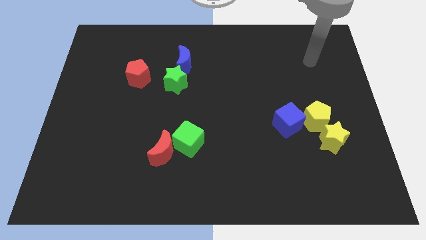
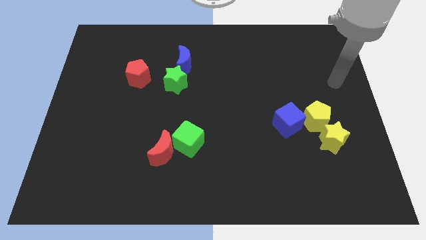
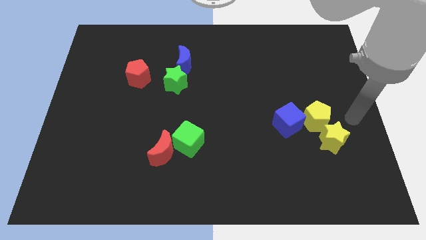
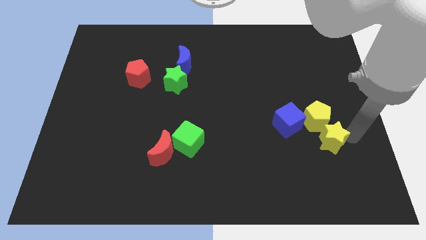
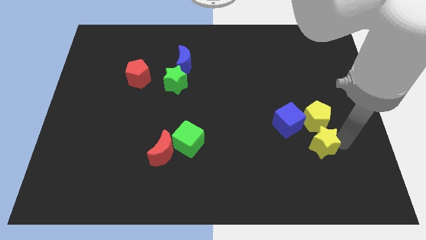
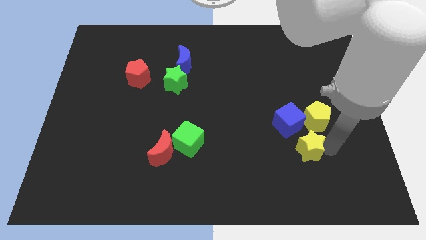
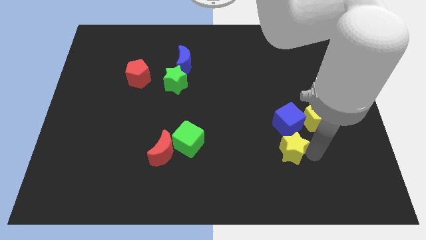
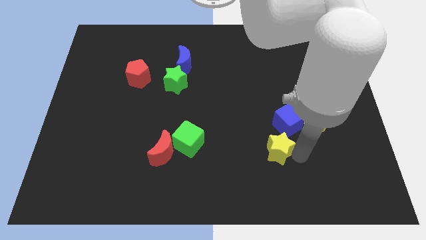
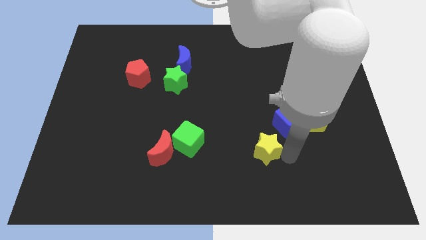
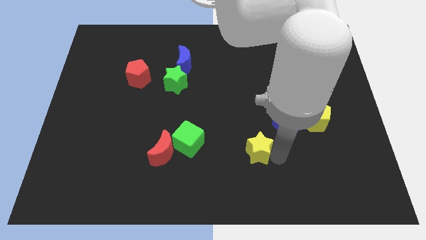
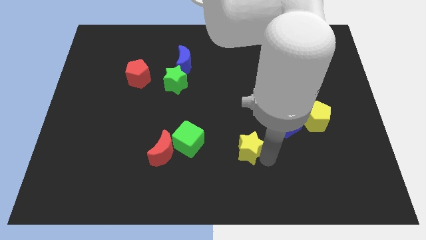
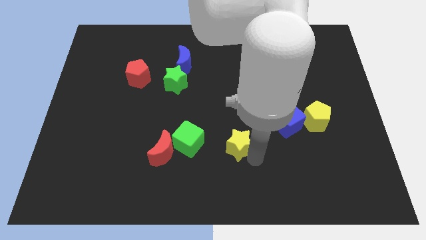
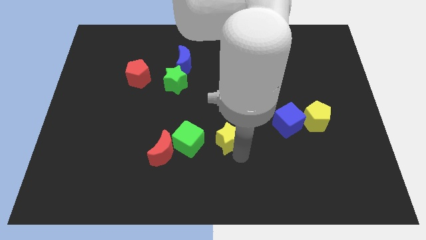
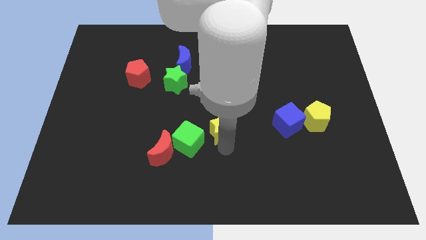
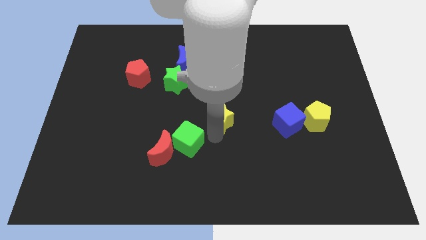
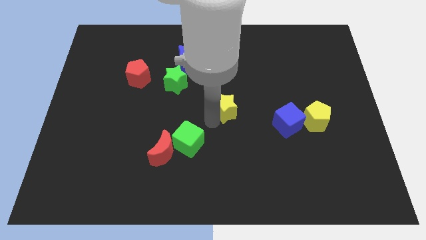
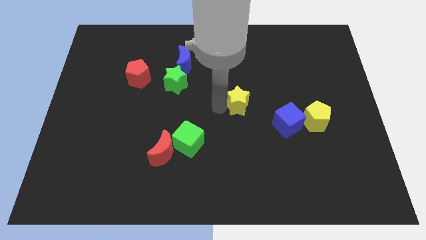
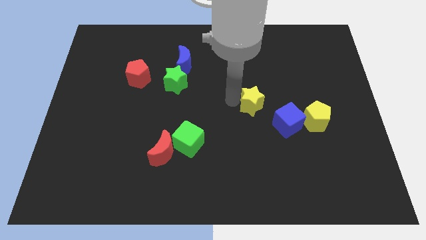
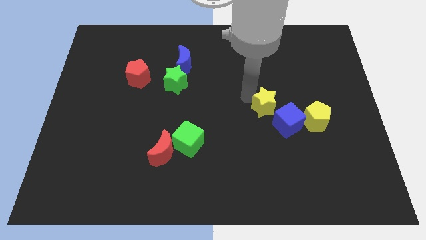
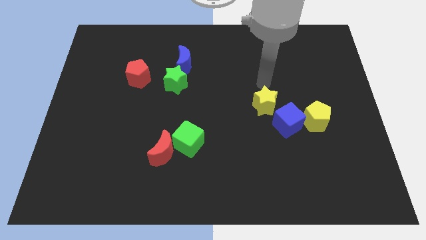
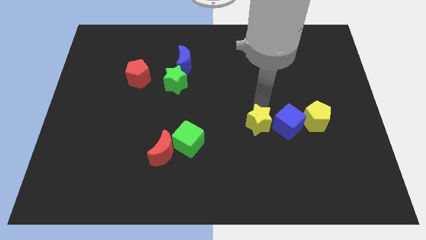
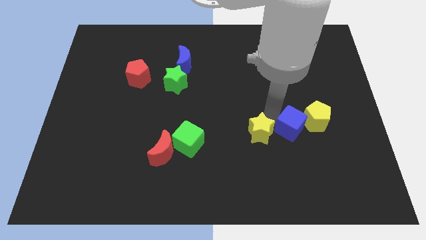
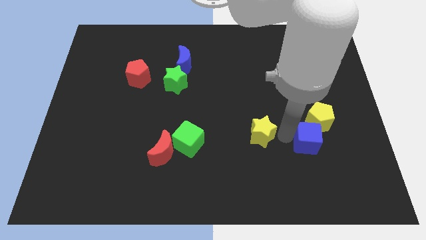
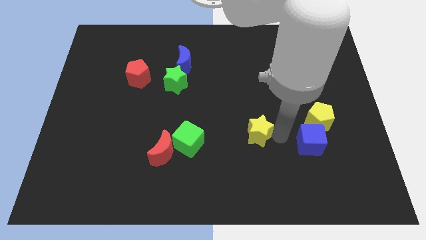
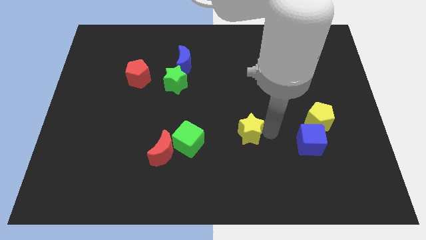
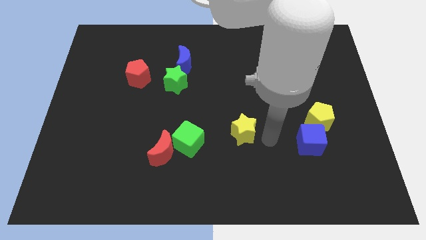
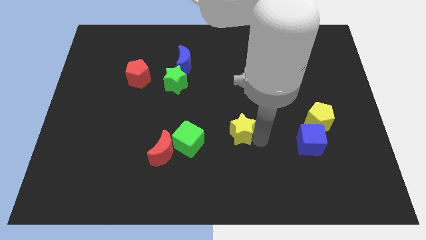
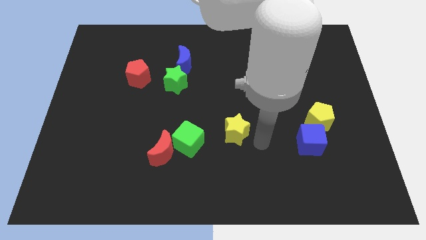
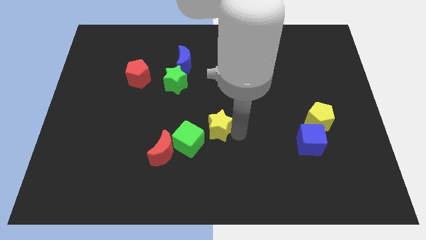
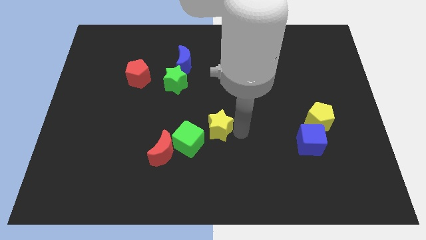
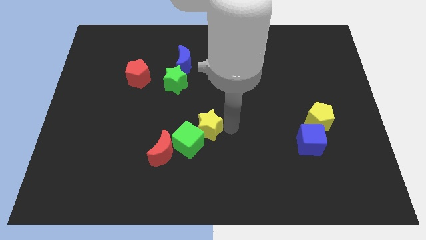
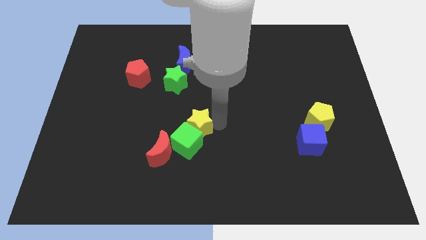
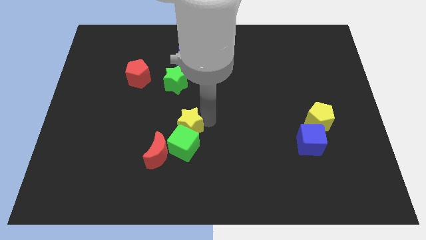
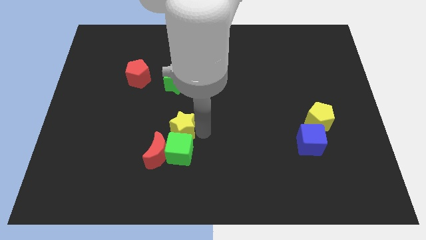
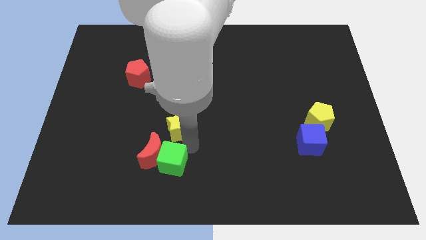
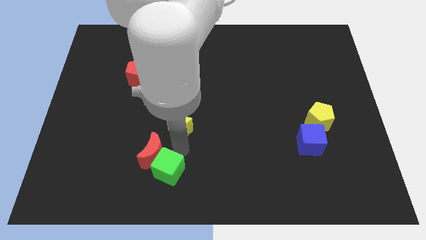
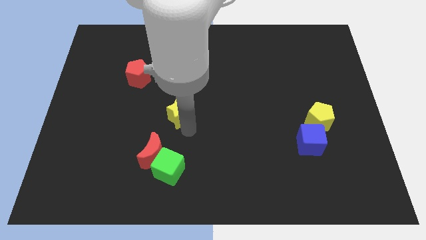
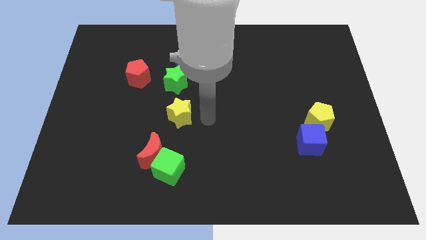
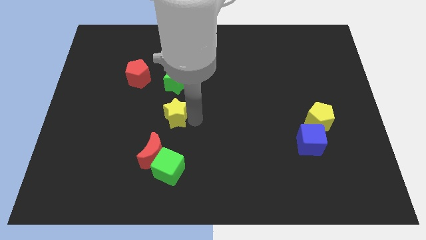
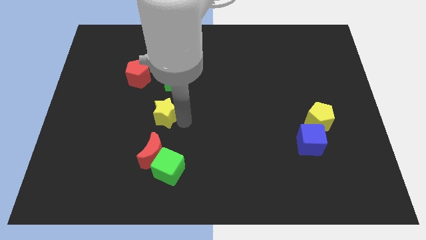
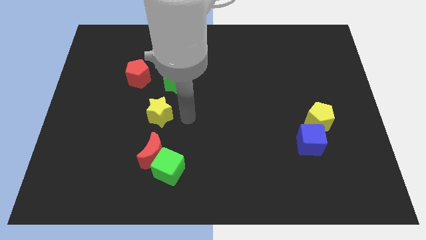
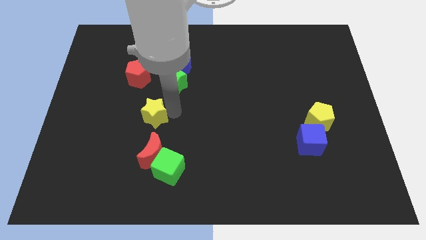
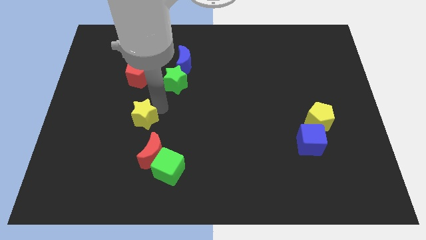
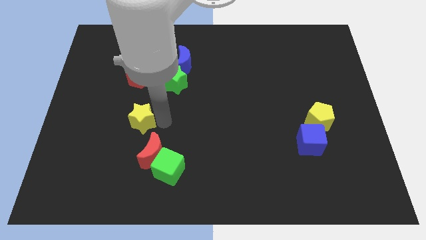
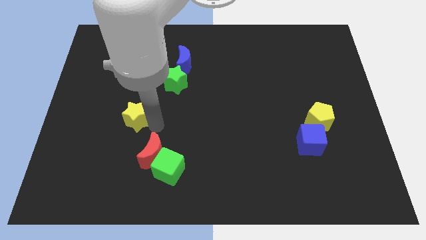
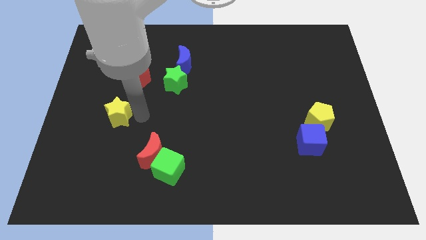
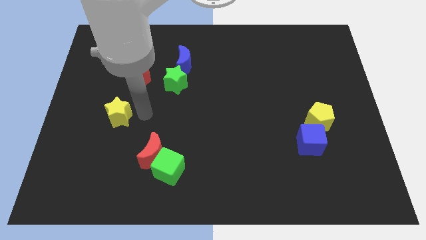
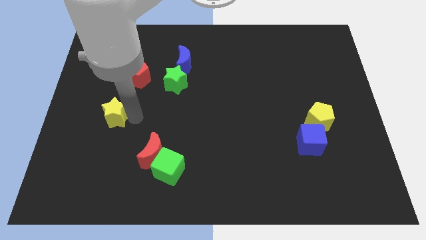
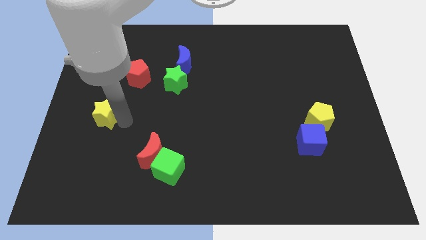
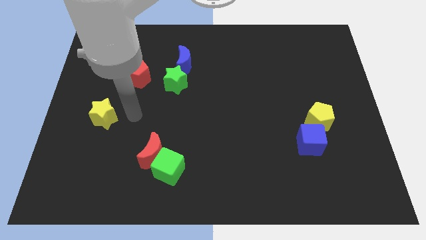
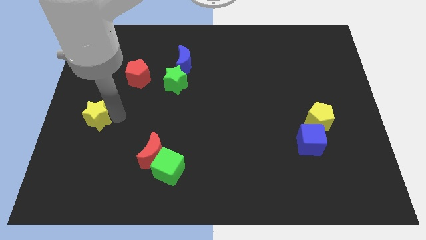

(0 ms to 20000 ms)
push the yellow star to the left side

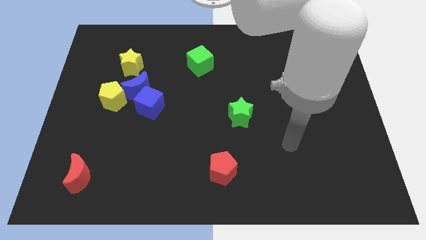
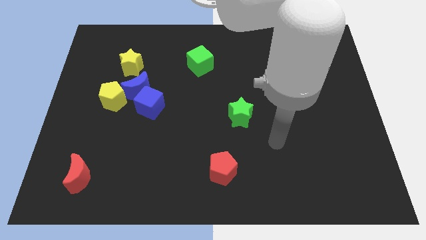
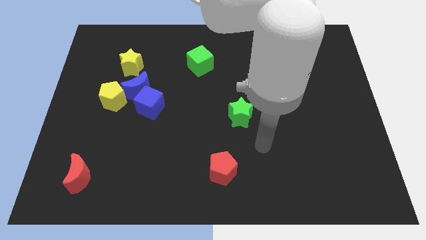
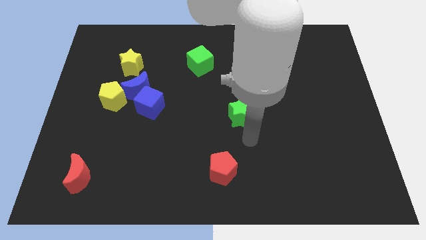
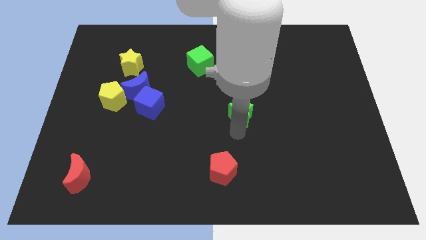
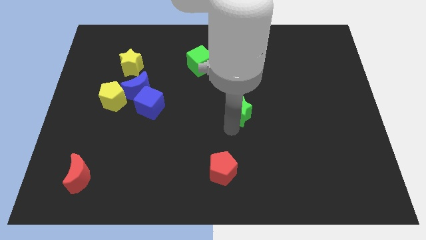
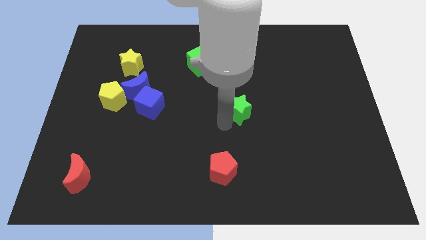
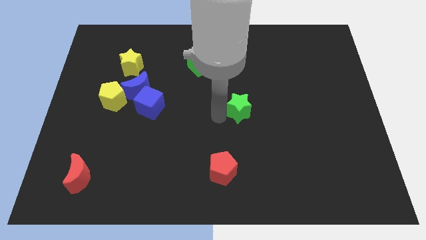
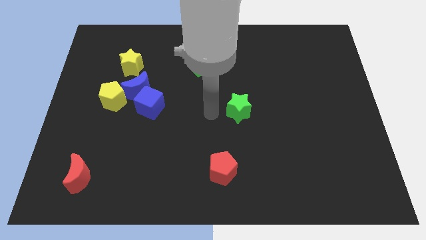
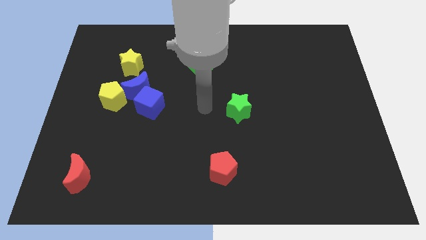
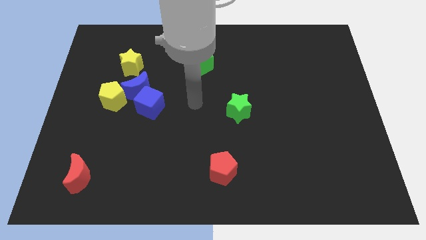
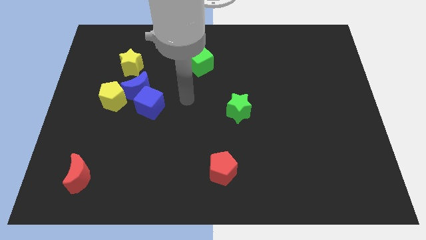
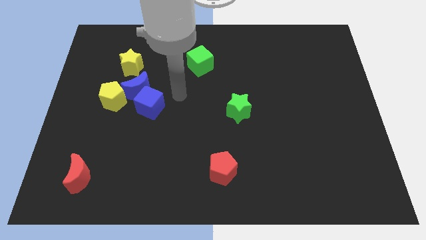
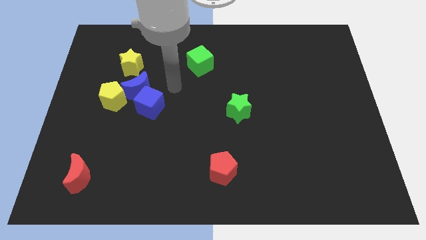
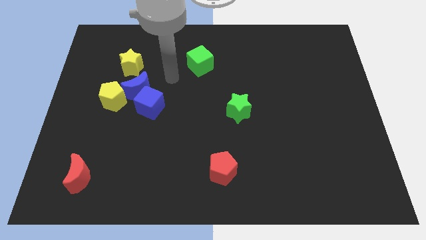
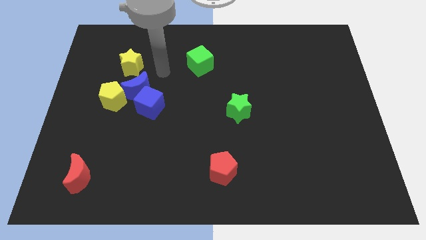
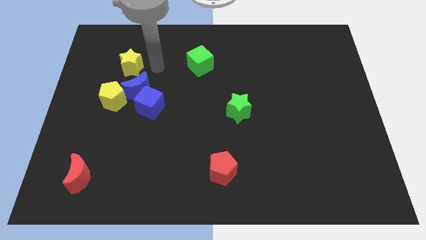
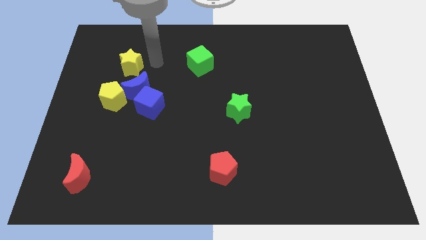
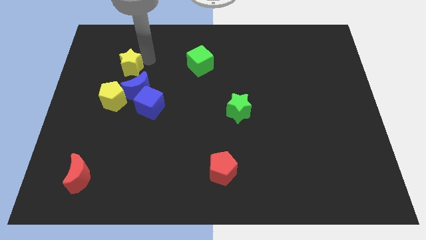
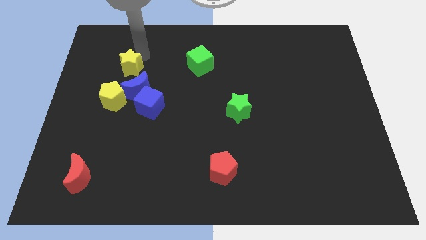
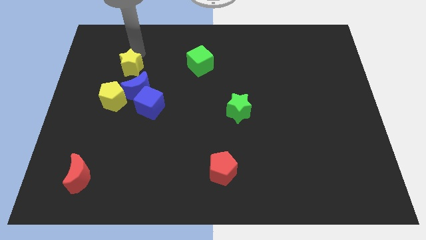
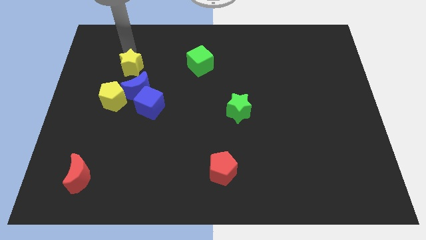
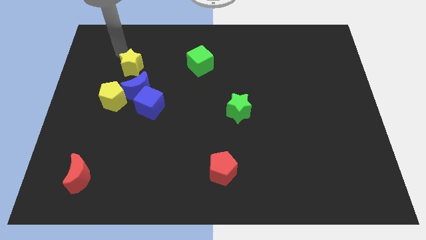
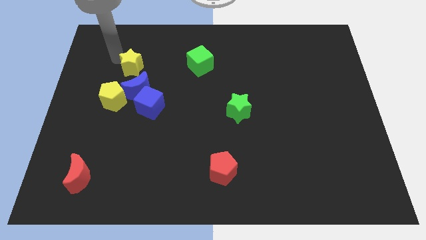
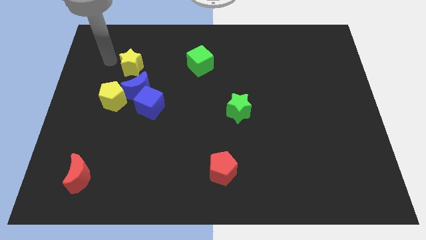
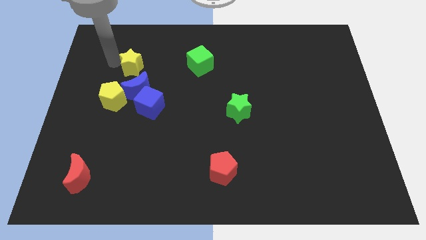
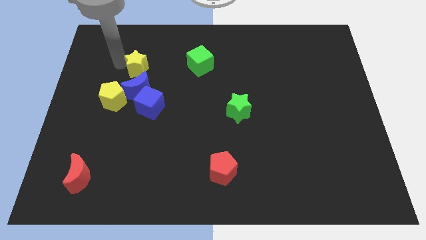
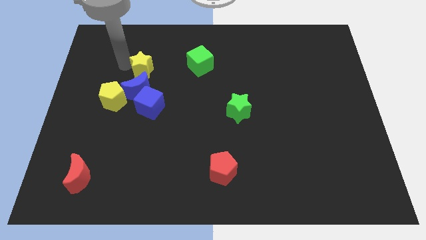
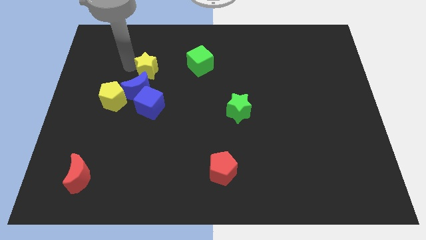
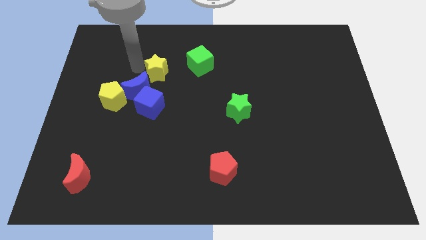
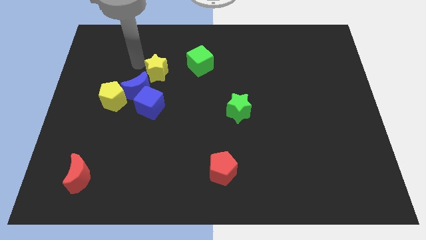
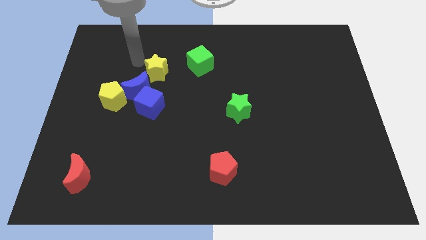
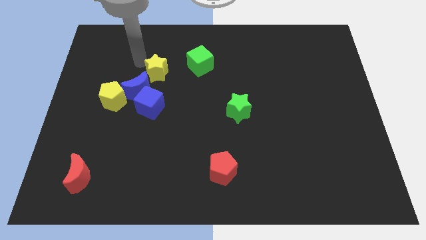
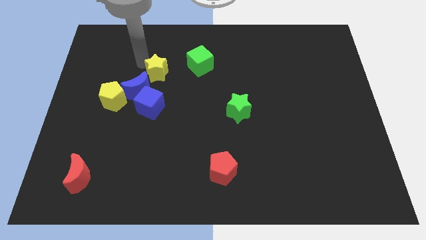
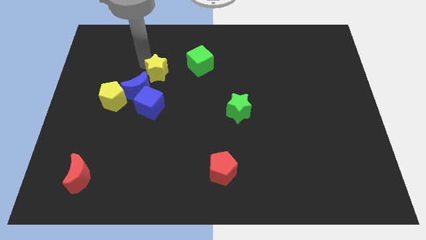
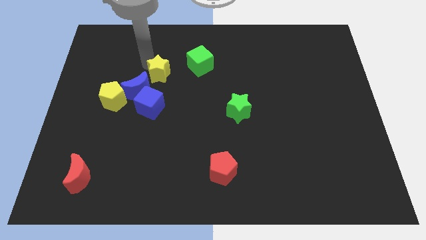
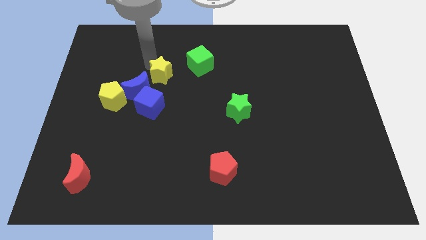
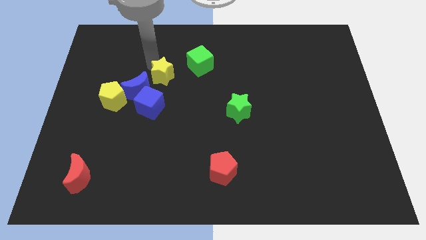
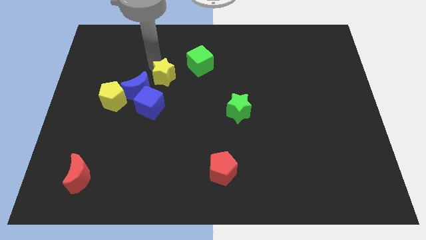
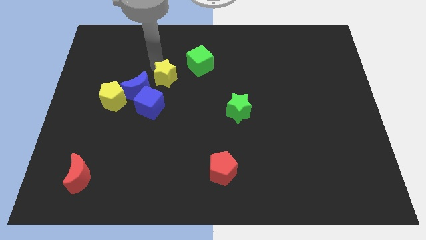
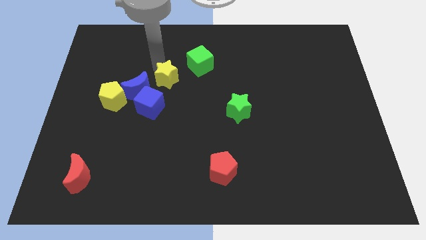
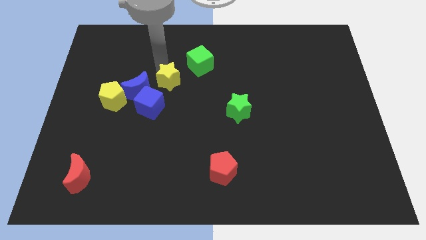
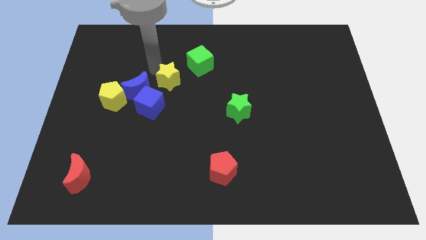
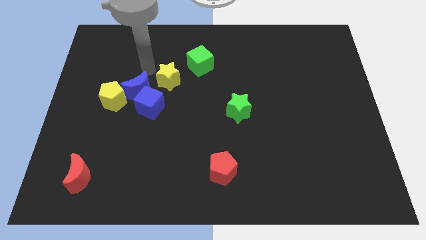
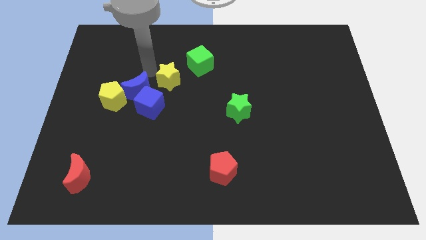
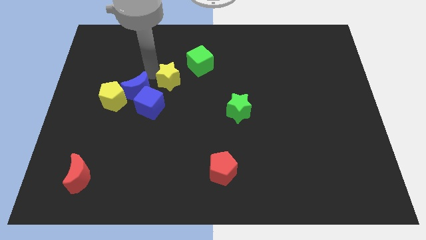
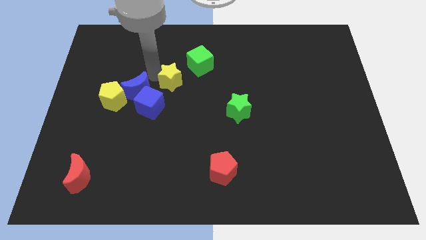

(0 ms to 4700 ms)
slide the yellow star to the center of the board
